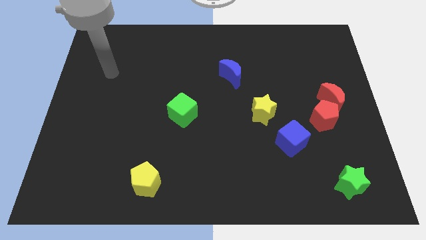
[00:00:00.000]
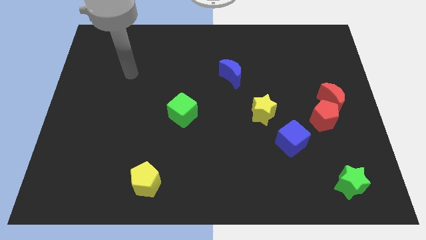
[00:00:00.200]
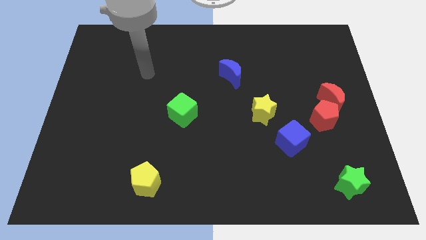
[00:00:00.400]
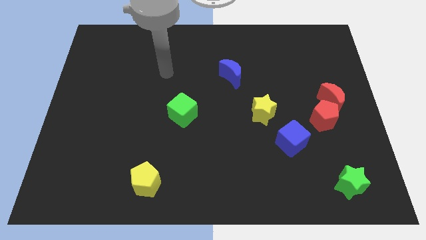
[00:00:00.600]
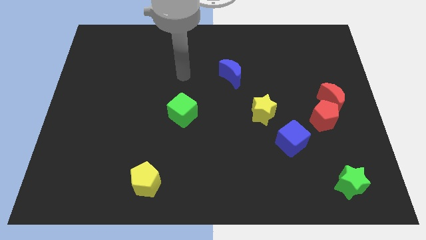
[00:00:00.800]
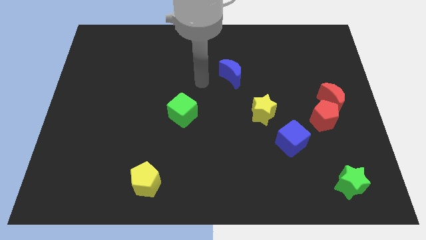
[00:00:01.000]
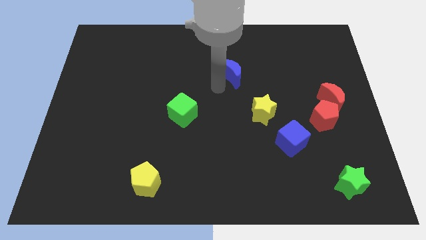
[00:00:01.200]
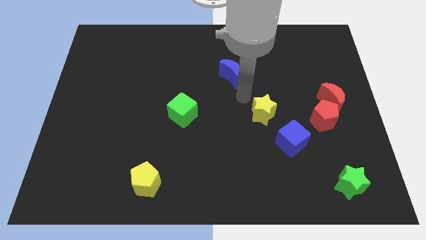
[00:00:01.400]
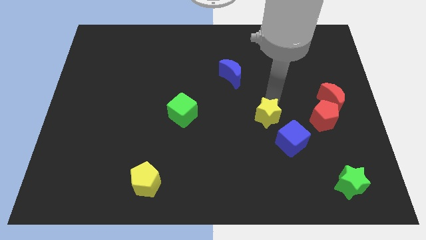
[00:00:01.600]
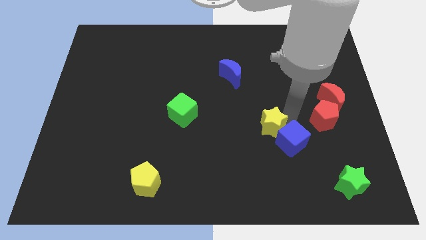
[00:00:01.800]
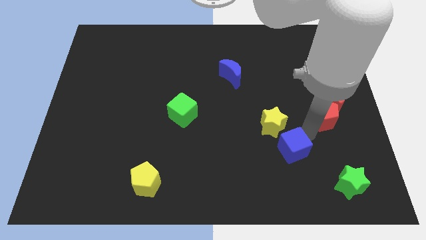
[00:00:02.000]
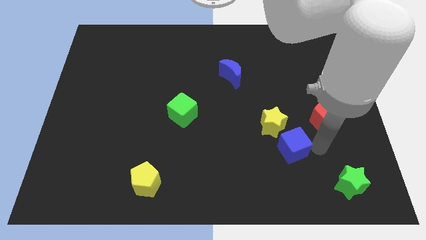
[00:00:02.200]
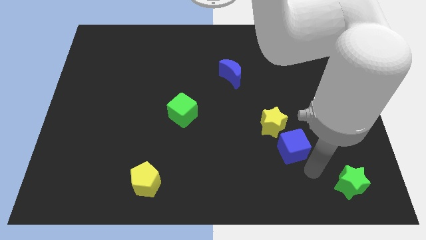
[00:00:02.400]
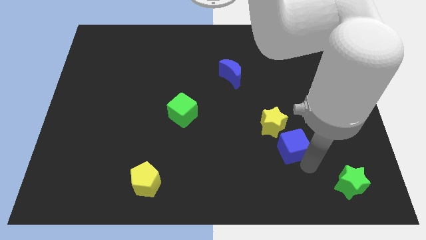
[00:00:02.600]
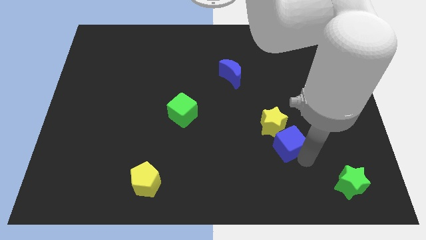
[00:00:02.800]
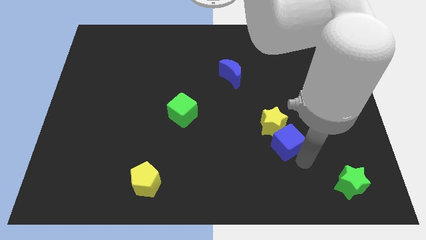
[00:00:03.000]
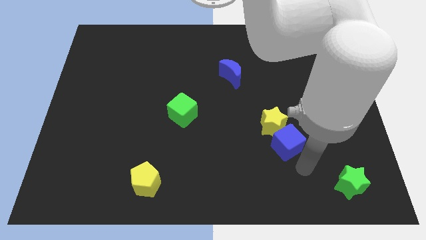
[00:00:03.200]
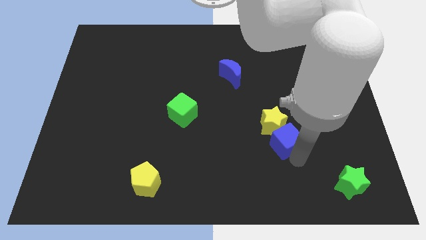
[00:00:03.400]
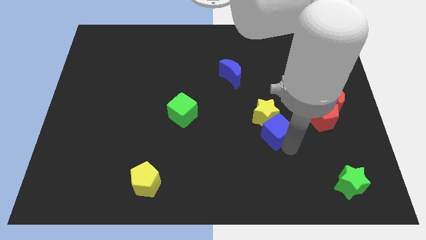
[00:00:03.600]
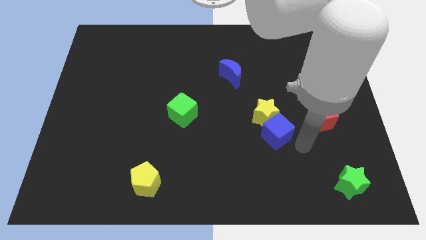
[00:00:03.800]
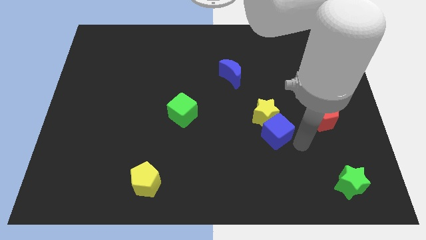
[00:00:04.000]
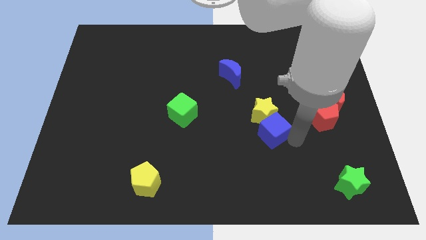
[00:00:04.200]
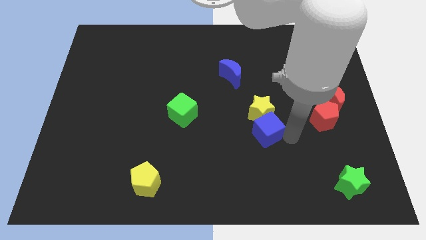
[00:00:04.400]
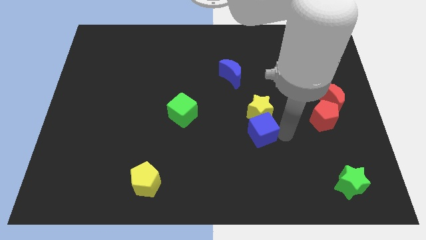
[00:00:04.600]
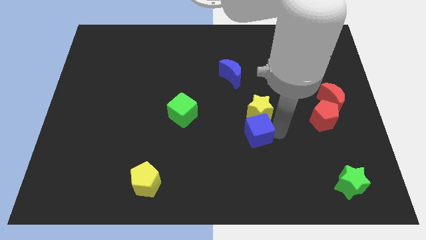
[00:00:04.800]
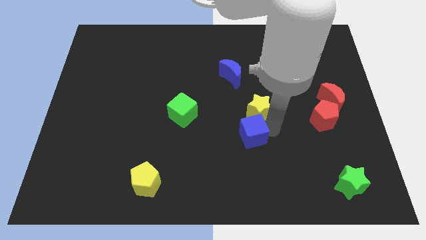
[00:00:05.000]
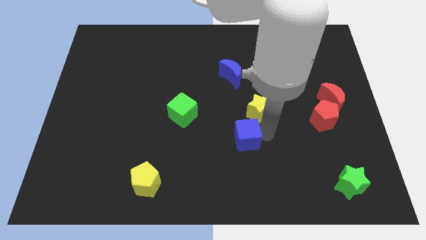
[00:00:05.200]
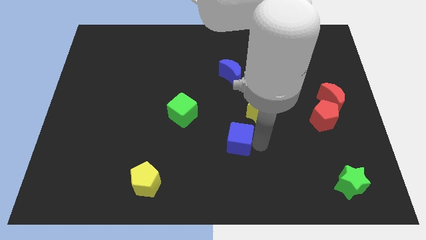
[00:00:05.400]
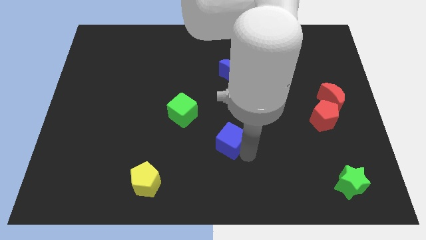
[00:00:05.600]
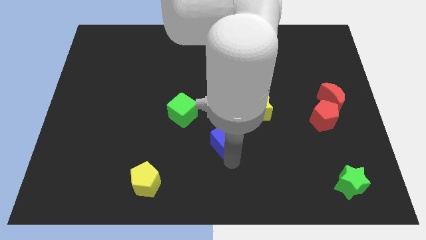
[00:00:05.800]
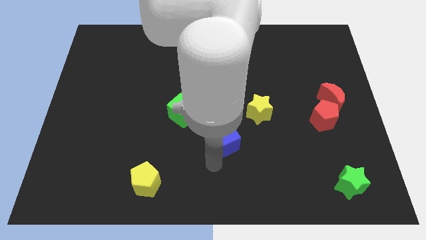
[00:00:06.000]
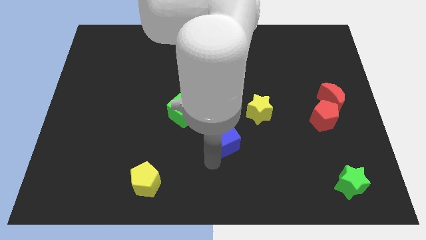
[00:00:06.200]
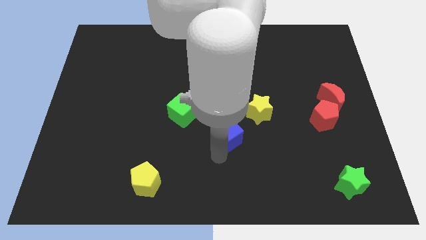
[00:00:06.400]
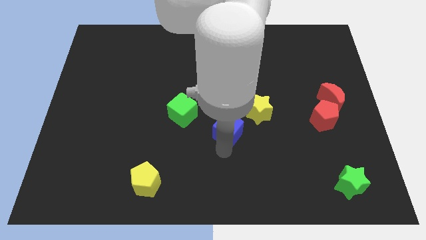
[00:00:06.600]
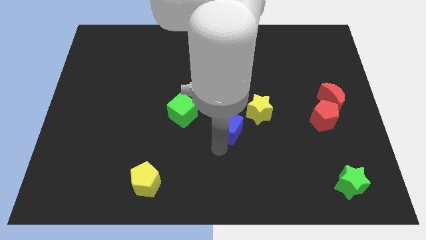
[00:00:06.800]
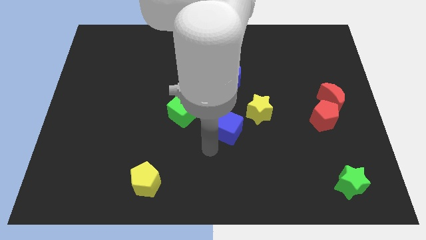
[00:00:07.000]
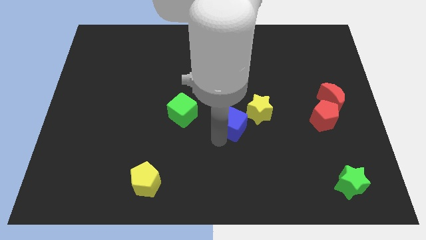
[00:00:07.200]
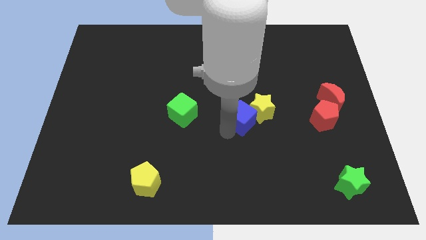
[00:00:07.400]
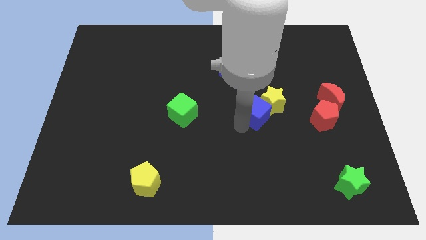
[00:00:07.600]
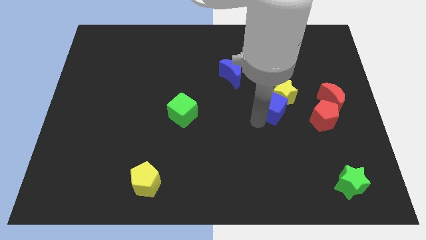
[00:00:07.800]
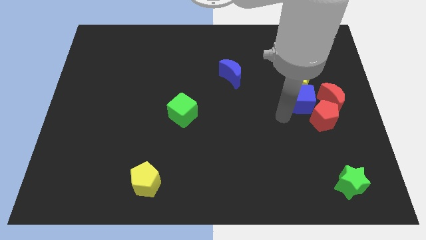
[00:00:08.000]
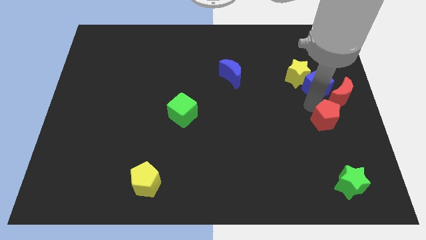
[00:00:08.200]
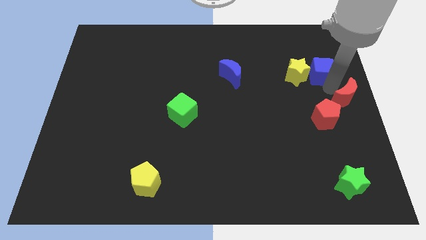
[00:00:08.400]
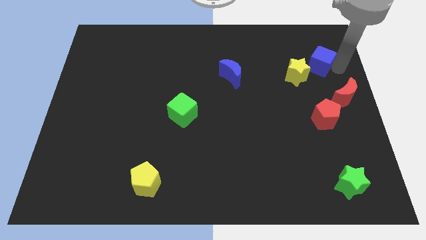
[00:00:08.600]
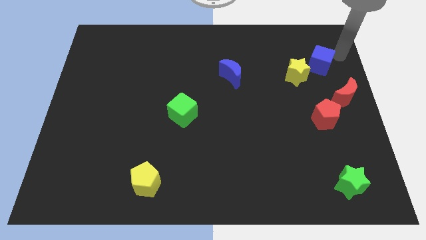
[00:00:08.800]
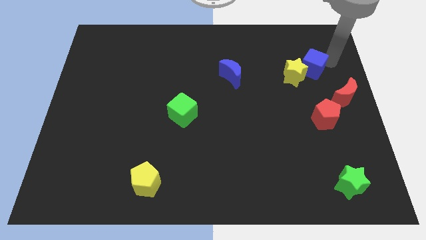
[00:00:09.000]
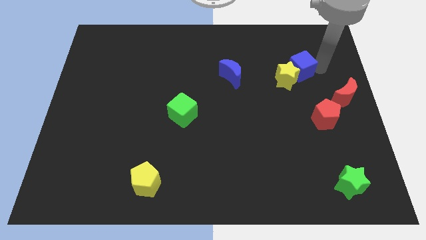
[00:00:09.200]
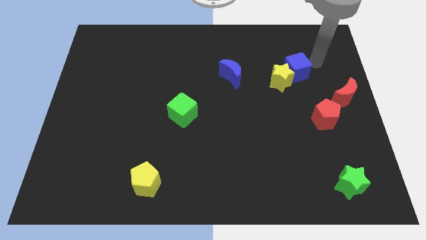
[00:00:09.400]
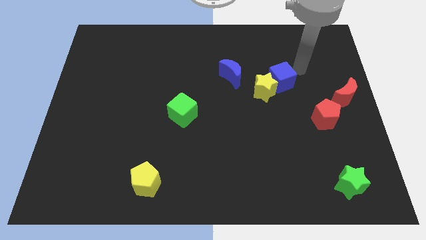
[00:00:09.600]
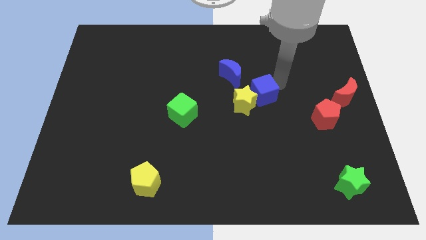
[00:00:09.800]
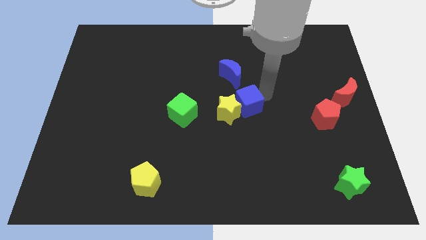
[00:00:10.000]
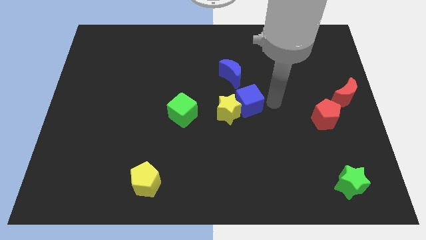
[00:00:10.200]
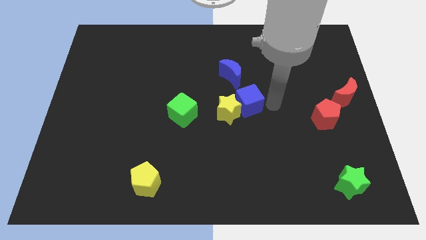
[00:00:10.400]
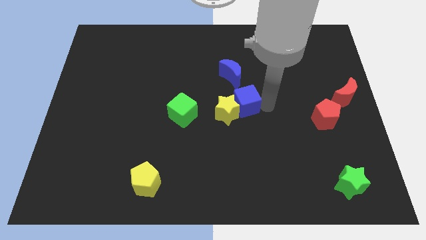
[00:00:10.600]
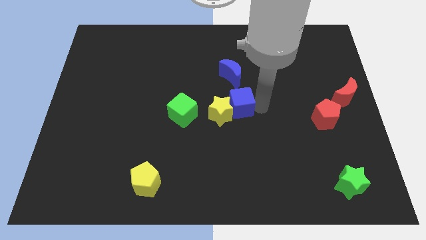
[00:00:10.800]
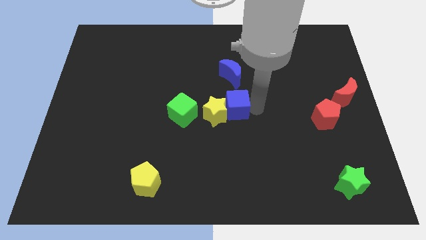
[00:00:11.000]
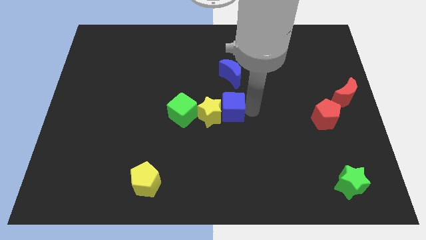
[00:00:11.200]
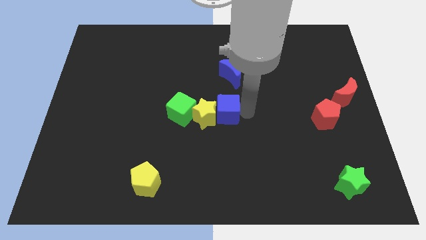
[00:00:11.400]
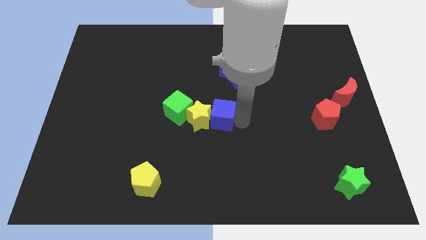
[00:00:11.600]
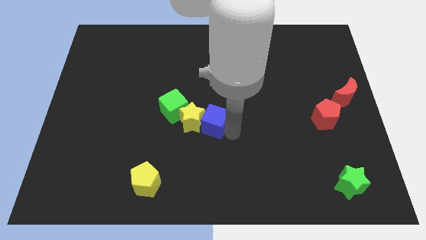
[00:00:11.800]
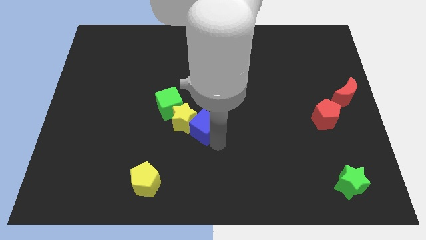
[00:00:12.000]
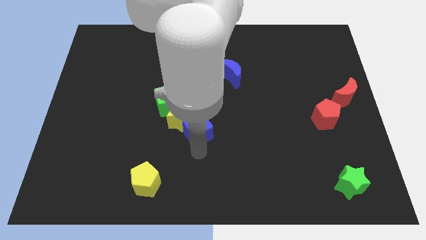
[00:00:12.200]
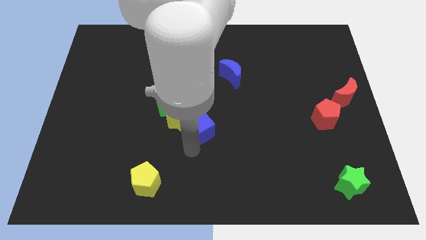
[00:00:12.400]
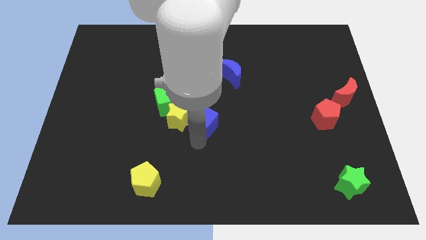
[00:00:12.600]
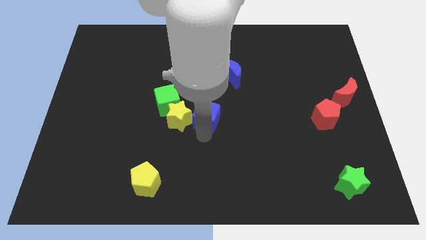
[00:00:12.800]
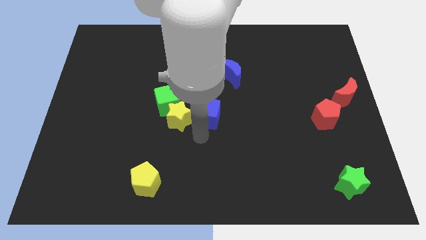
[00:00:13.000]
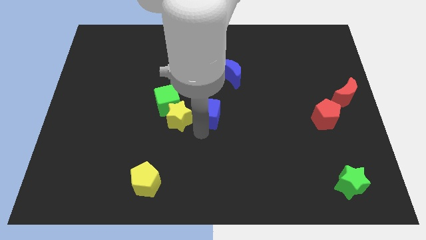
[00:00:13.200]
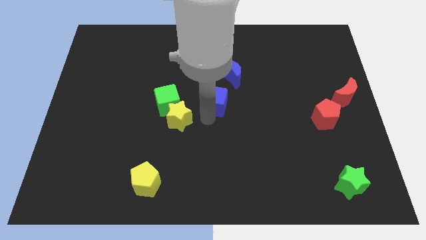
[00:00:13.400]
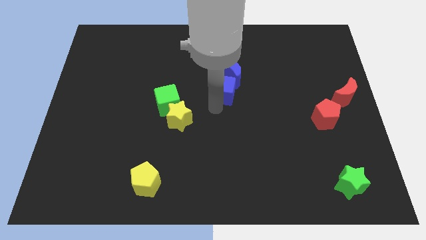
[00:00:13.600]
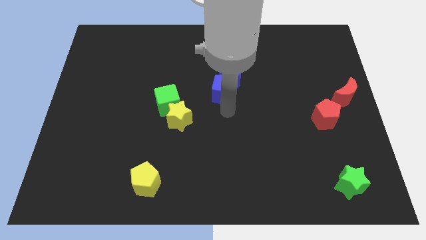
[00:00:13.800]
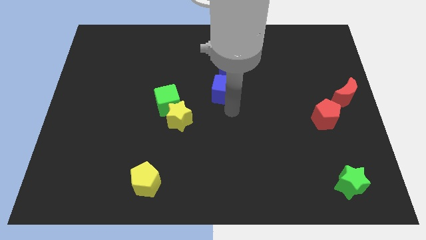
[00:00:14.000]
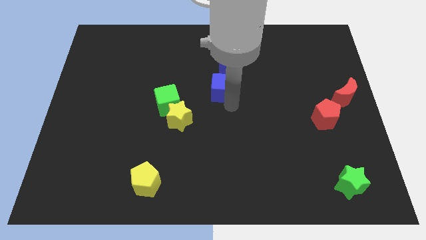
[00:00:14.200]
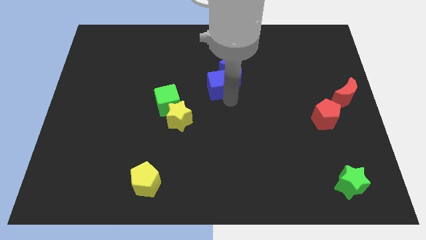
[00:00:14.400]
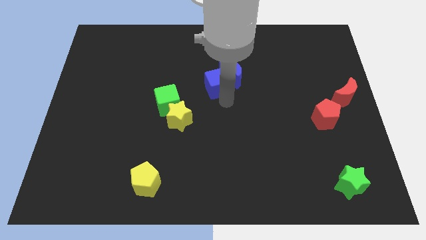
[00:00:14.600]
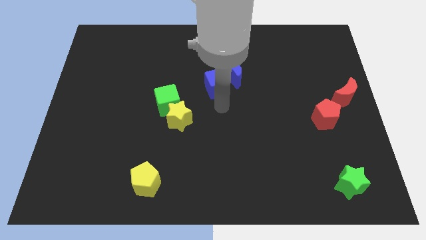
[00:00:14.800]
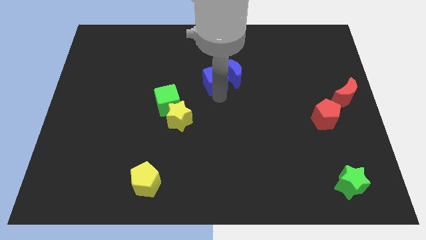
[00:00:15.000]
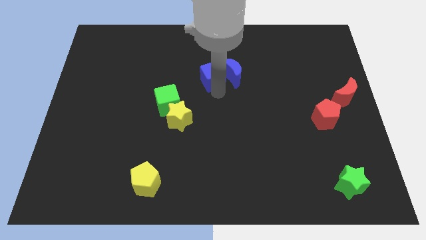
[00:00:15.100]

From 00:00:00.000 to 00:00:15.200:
move the blue cube to the top left of the blue moon

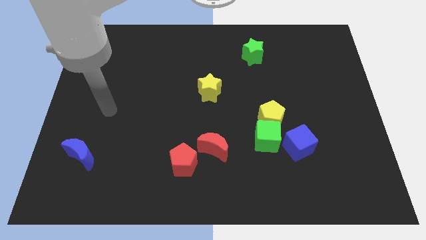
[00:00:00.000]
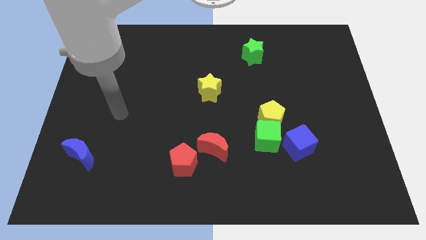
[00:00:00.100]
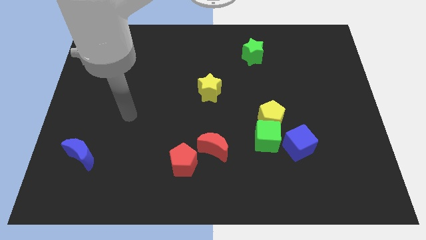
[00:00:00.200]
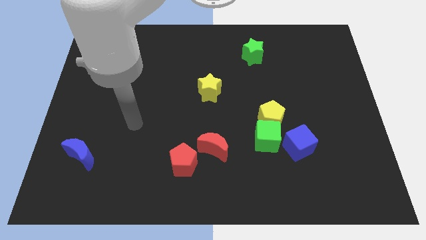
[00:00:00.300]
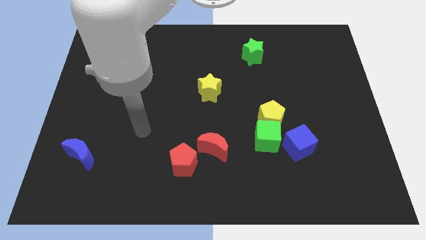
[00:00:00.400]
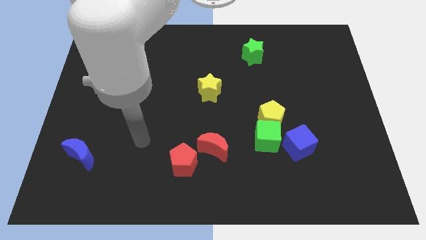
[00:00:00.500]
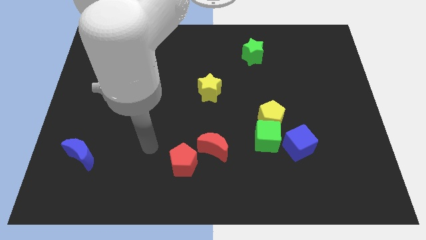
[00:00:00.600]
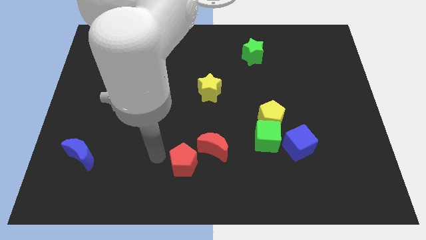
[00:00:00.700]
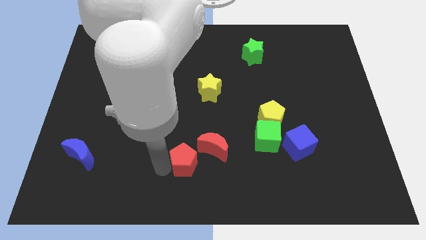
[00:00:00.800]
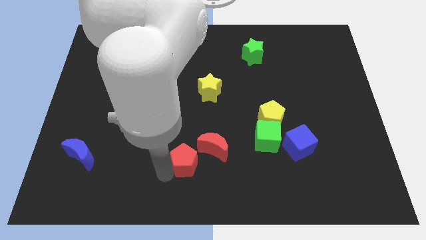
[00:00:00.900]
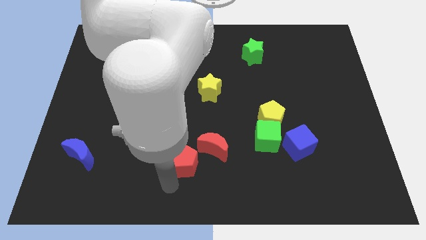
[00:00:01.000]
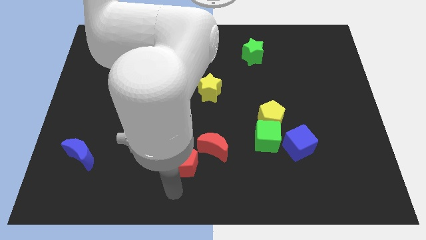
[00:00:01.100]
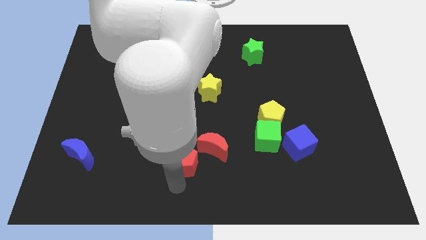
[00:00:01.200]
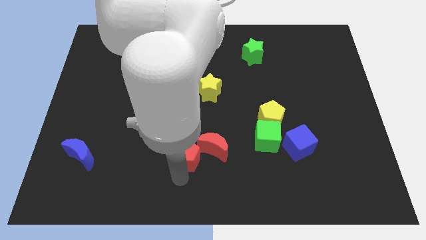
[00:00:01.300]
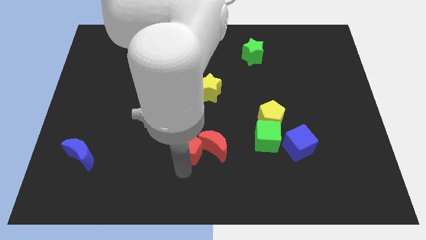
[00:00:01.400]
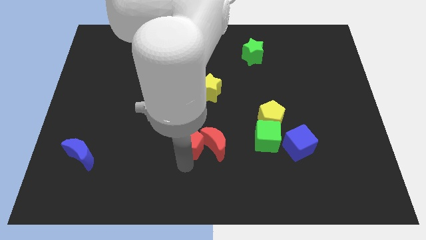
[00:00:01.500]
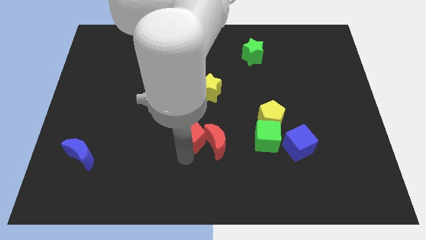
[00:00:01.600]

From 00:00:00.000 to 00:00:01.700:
push the red pentagon just left of the green cube
